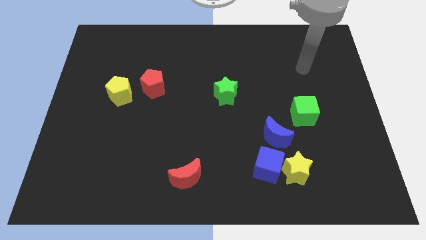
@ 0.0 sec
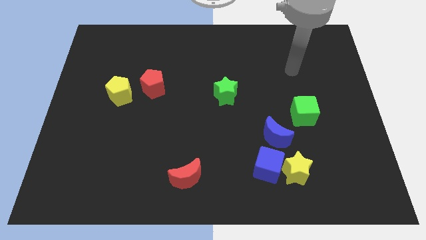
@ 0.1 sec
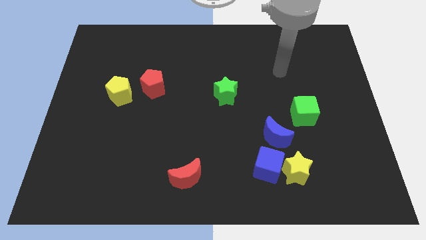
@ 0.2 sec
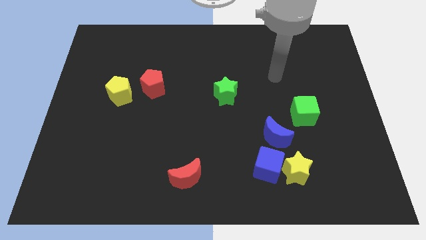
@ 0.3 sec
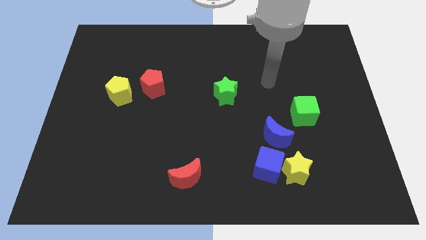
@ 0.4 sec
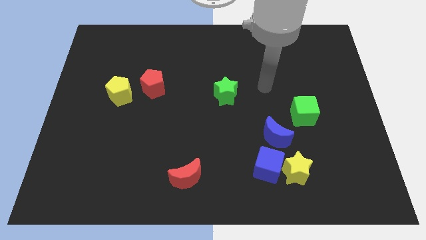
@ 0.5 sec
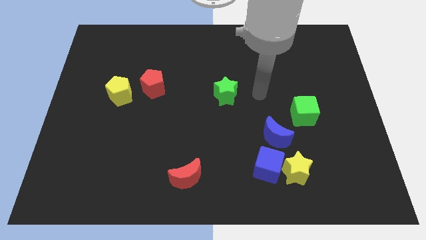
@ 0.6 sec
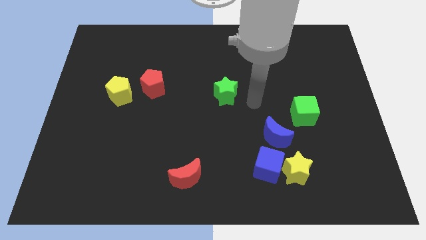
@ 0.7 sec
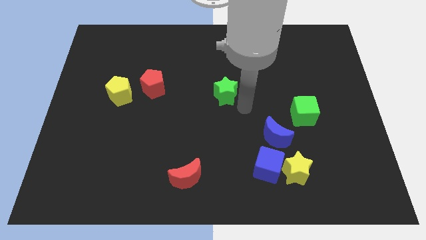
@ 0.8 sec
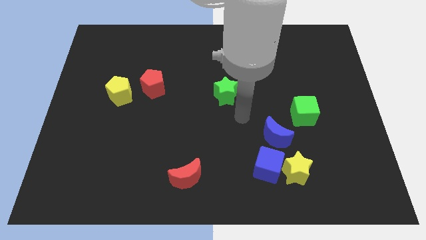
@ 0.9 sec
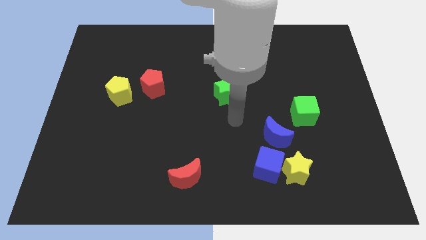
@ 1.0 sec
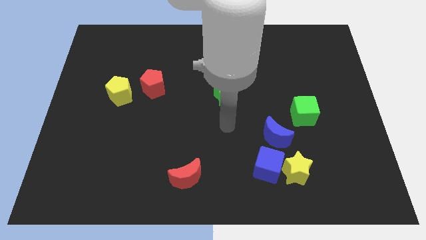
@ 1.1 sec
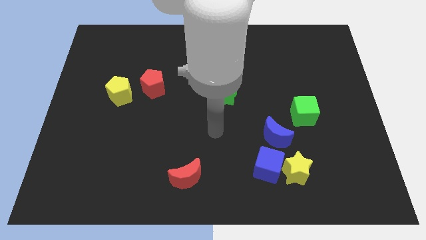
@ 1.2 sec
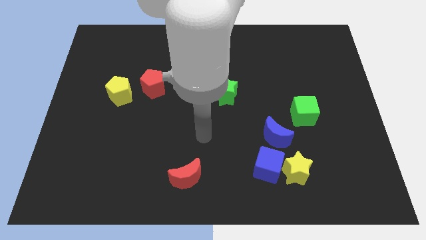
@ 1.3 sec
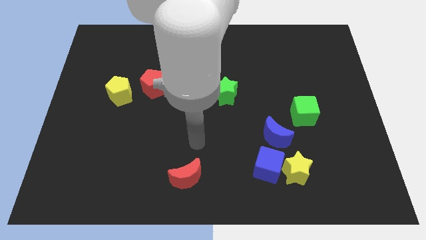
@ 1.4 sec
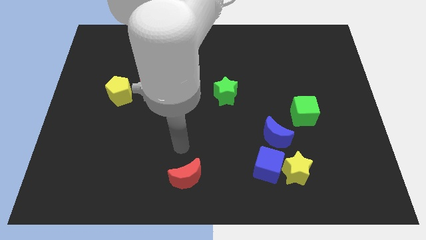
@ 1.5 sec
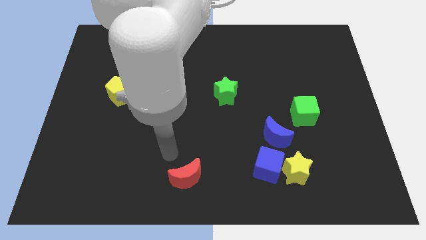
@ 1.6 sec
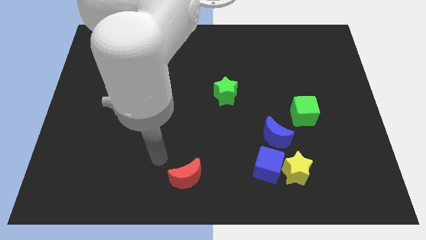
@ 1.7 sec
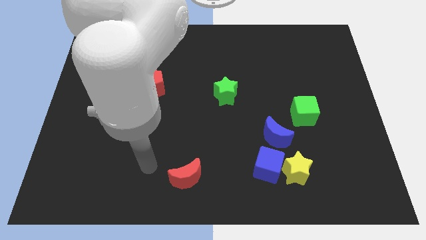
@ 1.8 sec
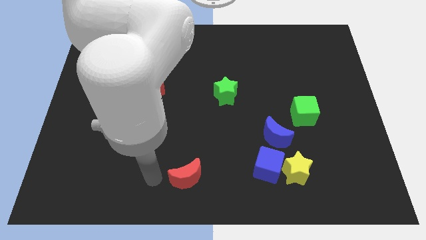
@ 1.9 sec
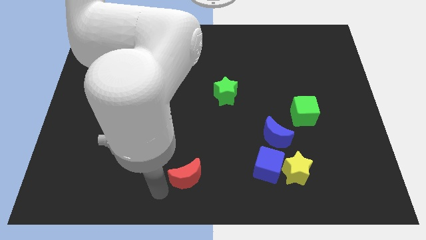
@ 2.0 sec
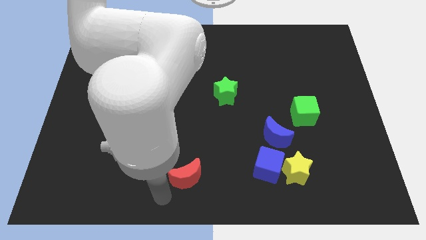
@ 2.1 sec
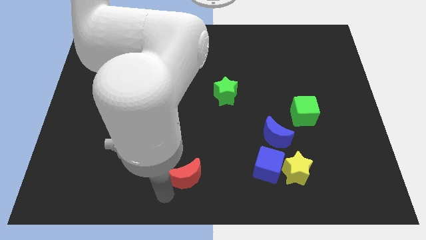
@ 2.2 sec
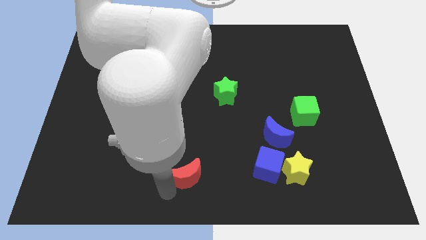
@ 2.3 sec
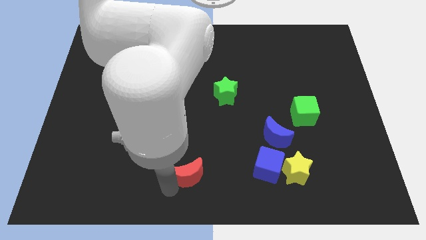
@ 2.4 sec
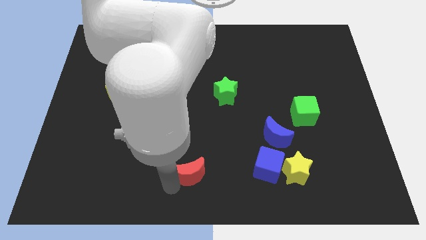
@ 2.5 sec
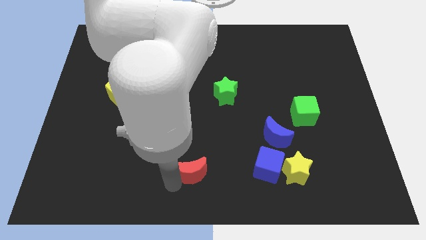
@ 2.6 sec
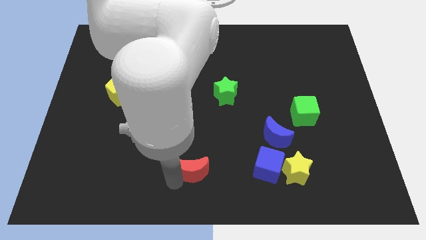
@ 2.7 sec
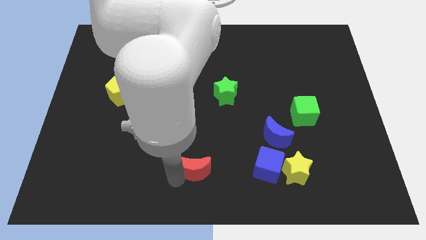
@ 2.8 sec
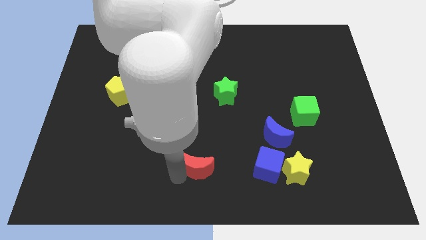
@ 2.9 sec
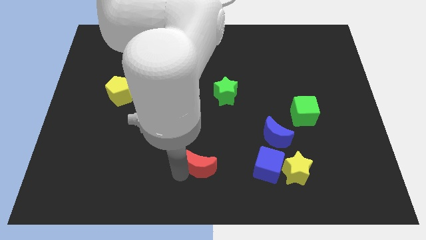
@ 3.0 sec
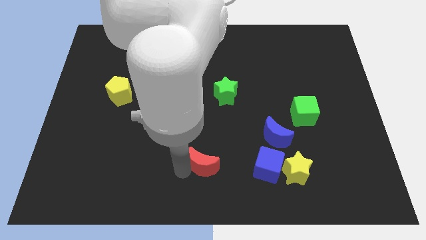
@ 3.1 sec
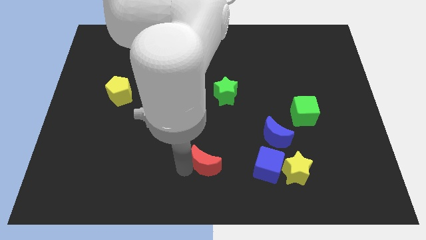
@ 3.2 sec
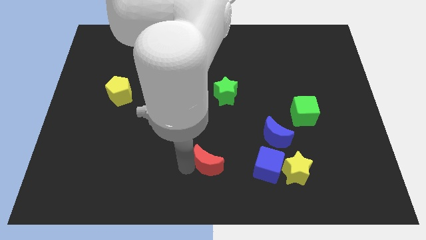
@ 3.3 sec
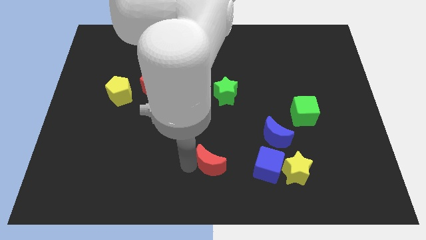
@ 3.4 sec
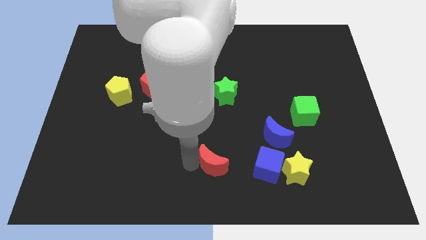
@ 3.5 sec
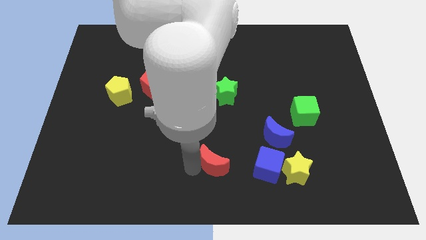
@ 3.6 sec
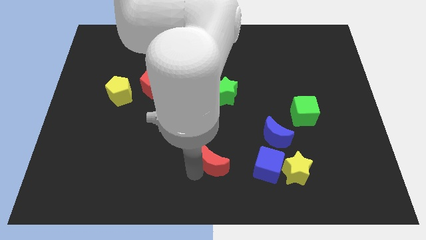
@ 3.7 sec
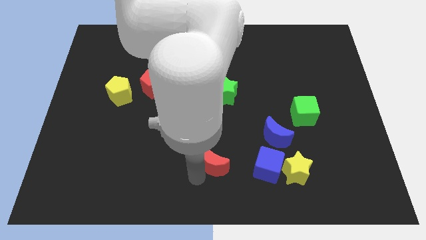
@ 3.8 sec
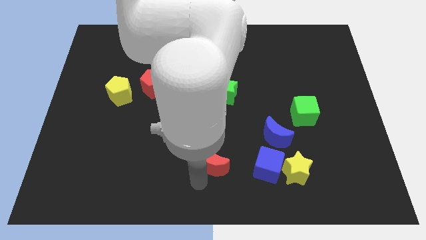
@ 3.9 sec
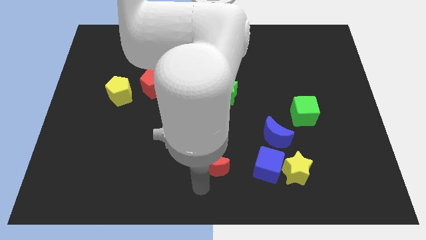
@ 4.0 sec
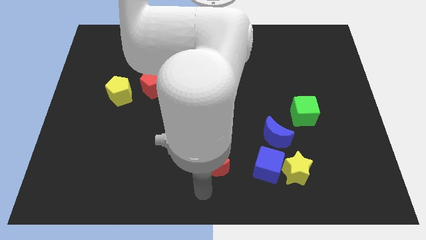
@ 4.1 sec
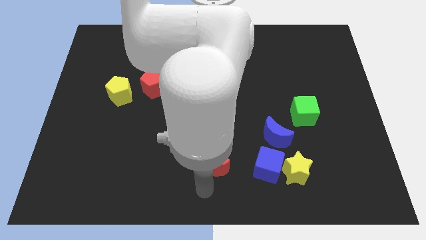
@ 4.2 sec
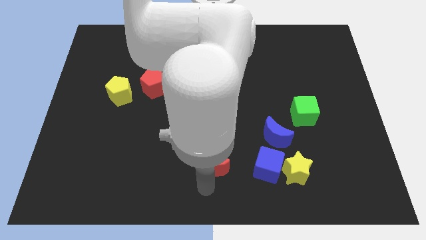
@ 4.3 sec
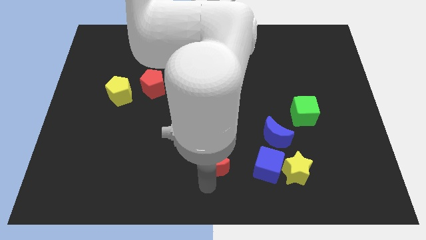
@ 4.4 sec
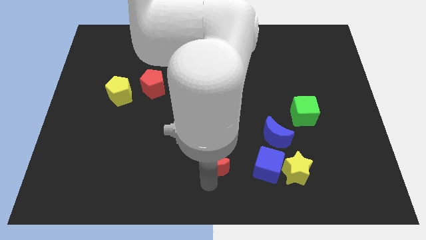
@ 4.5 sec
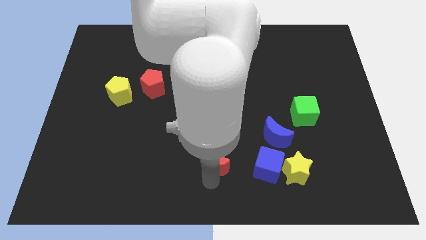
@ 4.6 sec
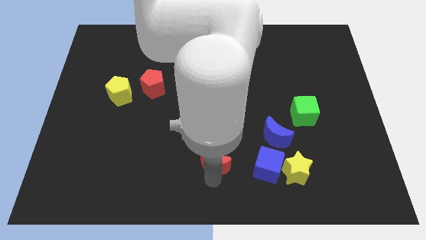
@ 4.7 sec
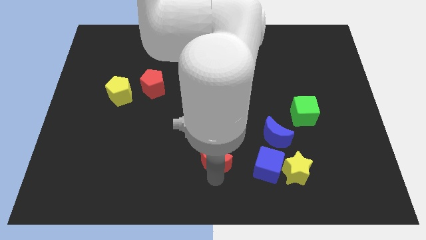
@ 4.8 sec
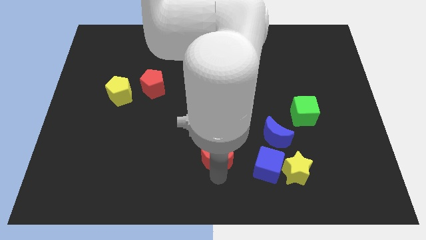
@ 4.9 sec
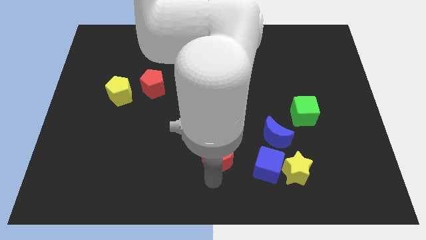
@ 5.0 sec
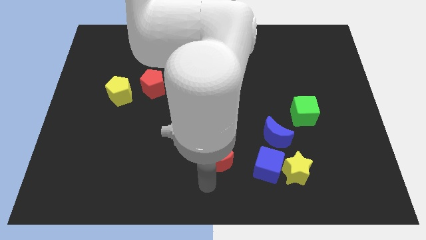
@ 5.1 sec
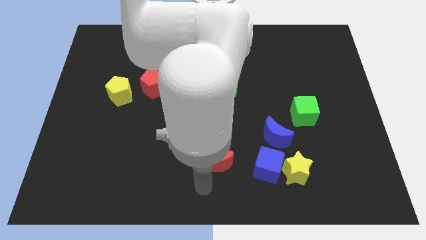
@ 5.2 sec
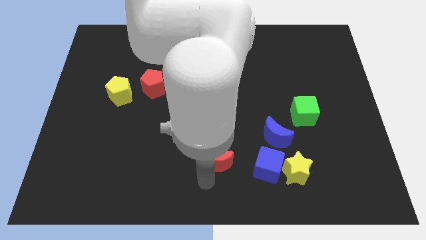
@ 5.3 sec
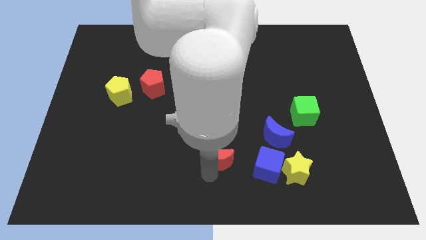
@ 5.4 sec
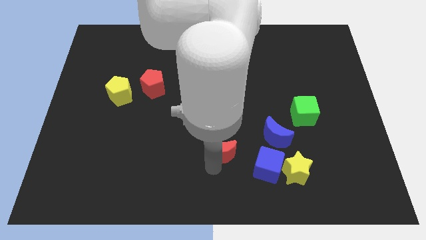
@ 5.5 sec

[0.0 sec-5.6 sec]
move the red moon to the left side of the blue moon

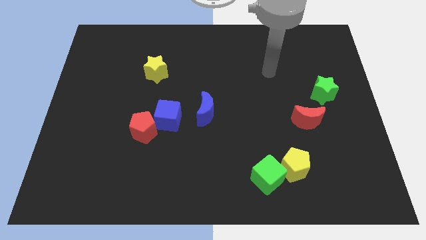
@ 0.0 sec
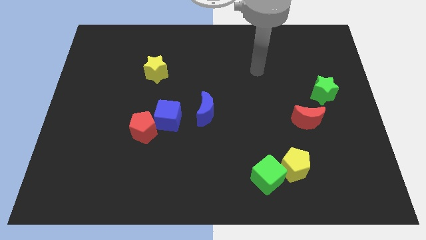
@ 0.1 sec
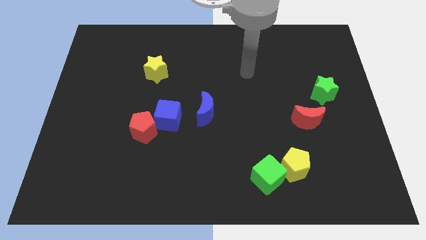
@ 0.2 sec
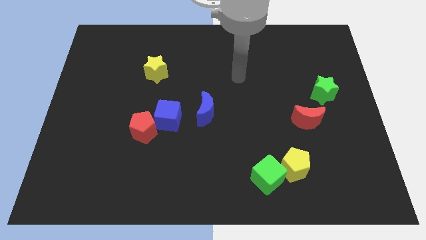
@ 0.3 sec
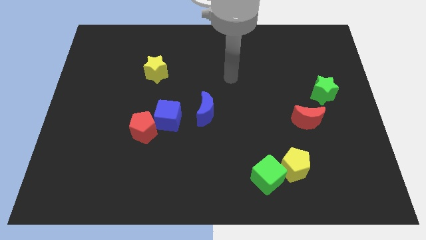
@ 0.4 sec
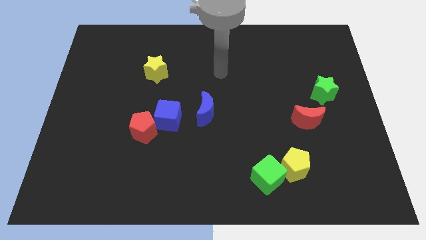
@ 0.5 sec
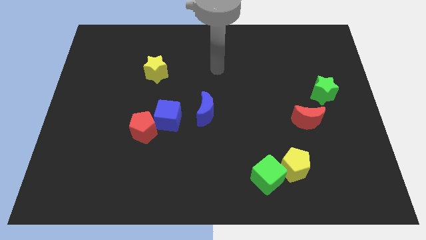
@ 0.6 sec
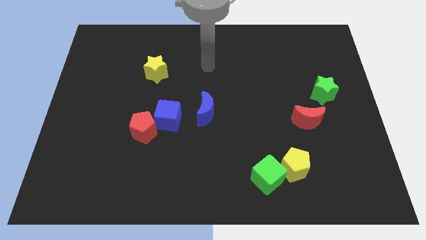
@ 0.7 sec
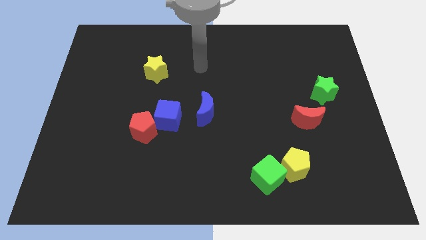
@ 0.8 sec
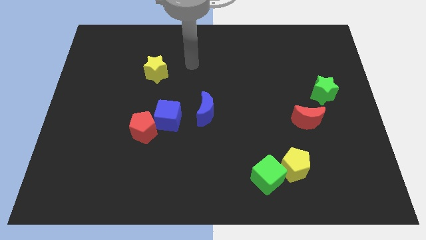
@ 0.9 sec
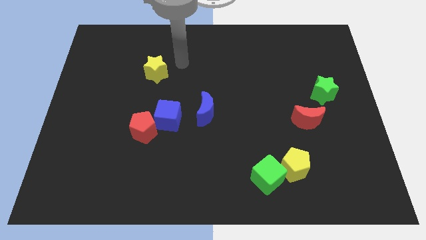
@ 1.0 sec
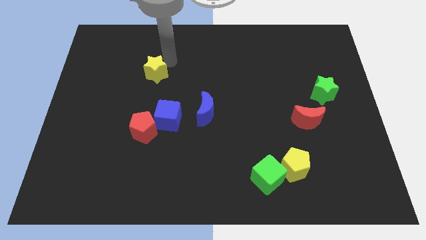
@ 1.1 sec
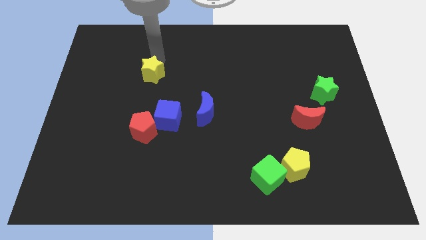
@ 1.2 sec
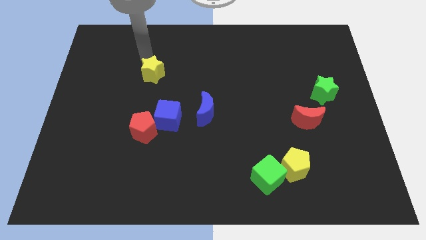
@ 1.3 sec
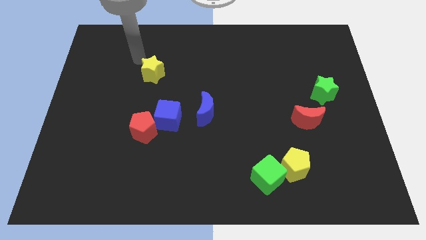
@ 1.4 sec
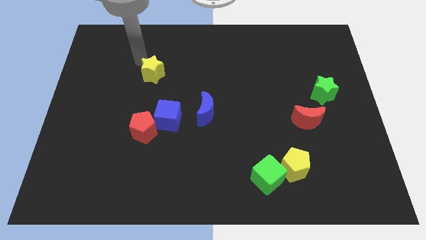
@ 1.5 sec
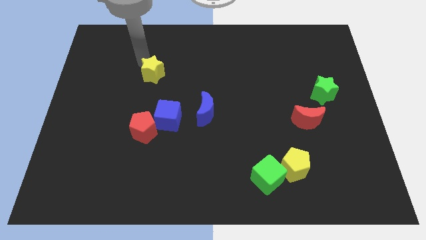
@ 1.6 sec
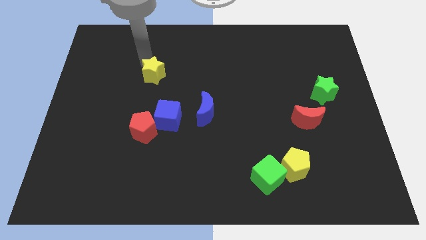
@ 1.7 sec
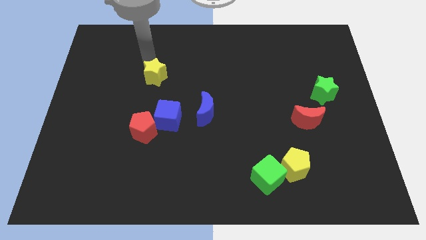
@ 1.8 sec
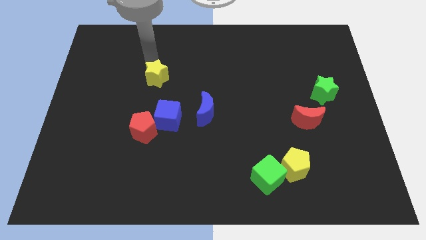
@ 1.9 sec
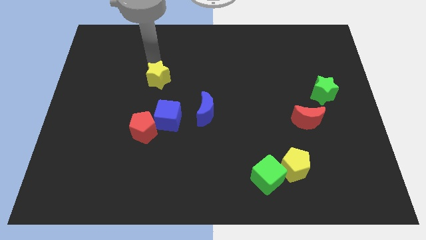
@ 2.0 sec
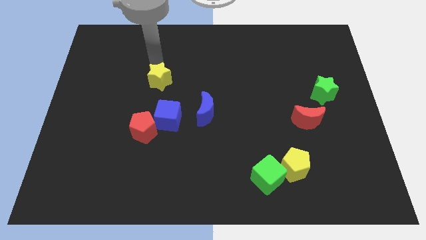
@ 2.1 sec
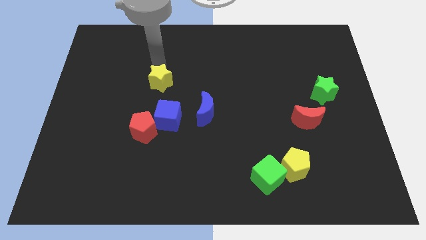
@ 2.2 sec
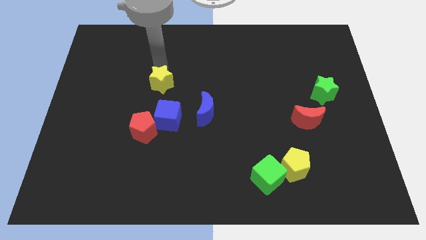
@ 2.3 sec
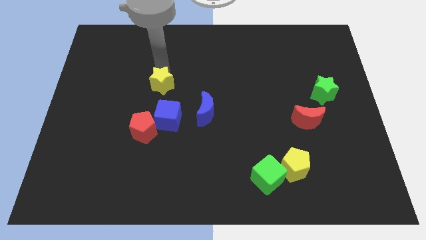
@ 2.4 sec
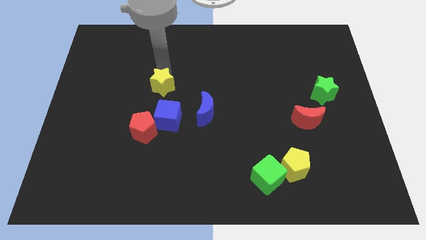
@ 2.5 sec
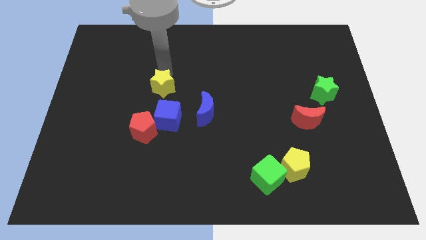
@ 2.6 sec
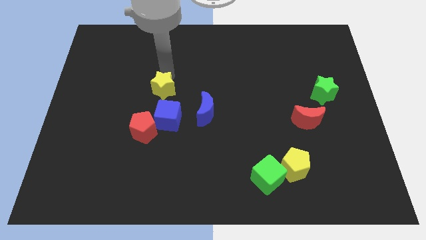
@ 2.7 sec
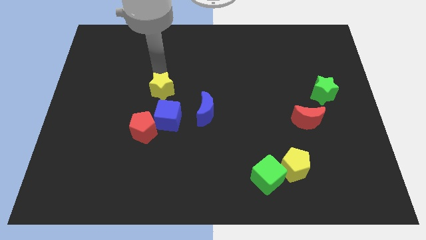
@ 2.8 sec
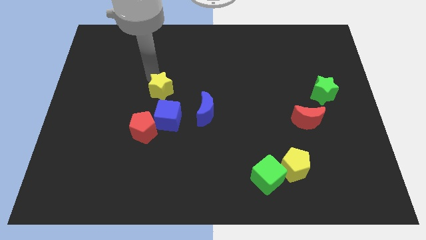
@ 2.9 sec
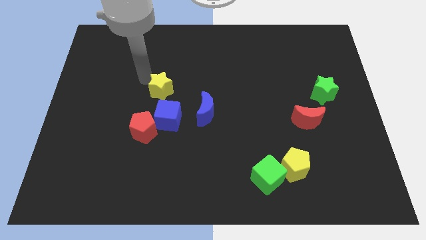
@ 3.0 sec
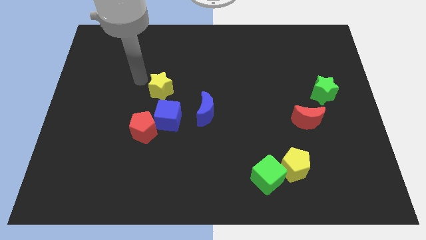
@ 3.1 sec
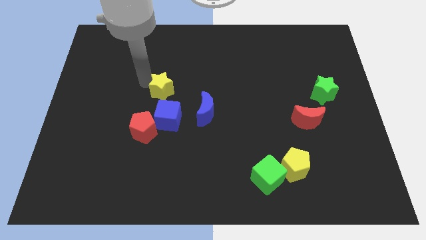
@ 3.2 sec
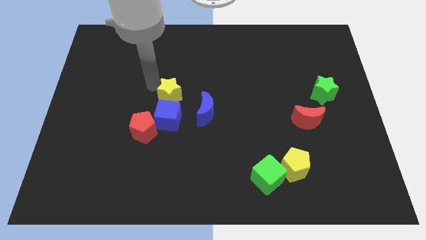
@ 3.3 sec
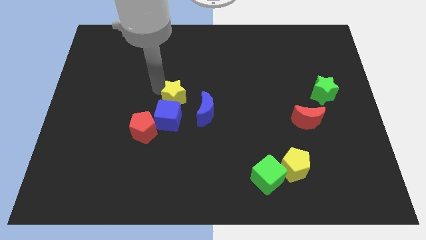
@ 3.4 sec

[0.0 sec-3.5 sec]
slide the yellow star diagonally up and to the right of the blue cube
